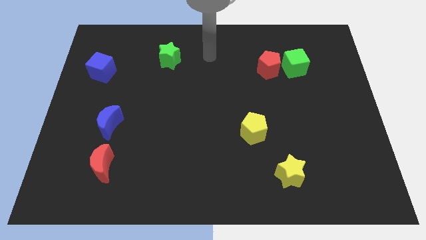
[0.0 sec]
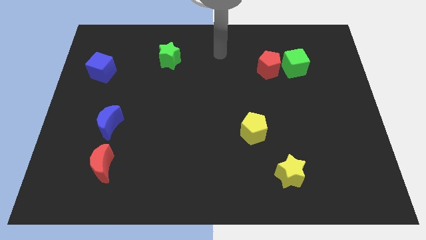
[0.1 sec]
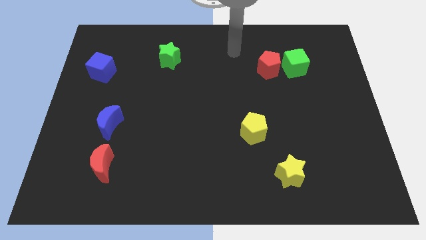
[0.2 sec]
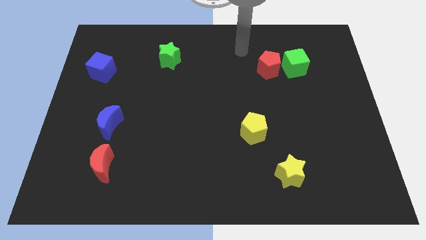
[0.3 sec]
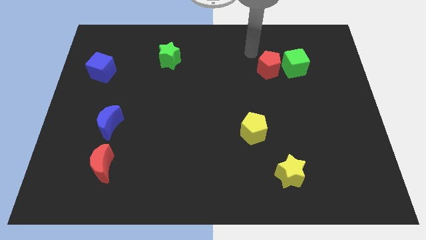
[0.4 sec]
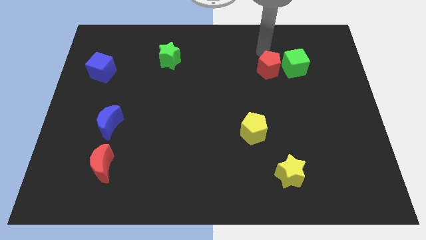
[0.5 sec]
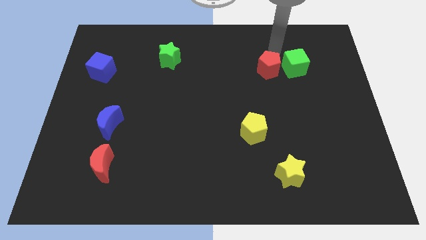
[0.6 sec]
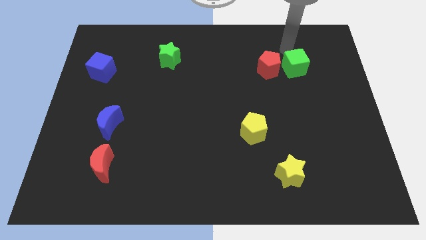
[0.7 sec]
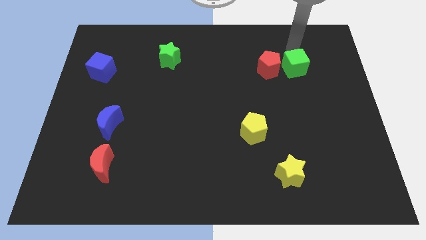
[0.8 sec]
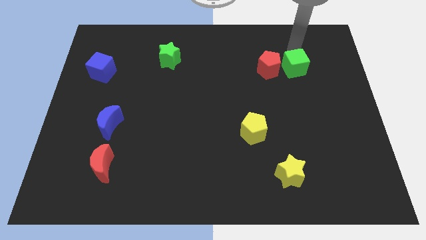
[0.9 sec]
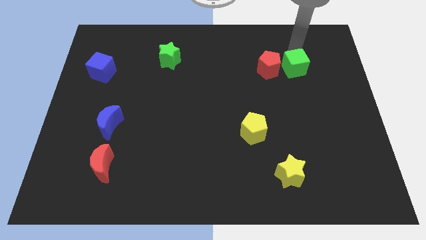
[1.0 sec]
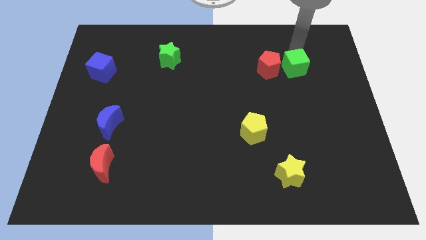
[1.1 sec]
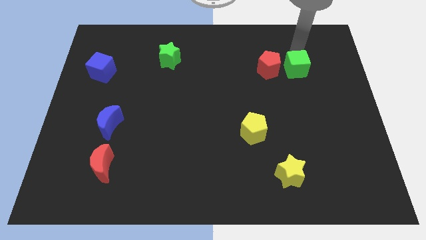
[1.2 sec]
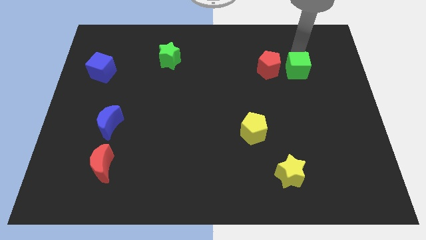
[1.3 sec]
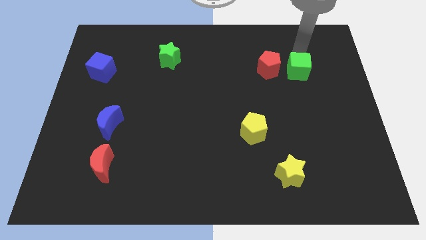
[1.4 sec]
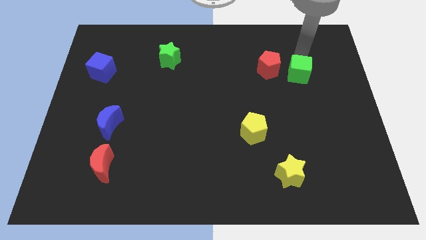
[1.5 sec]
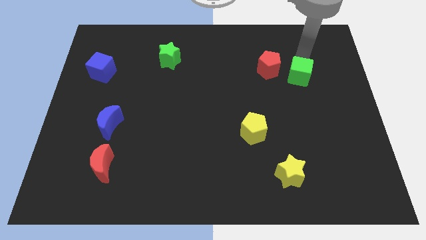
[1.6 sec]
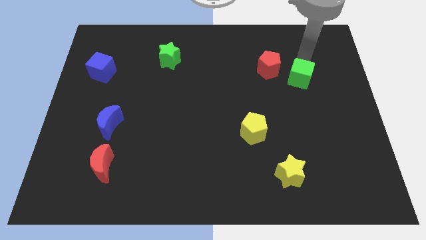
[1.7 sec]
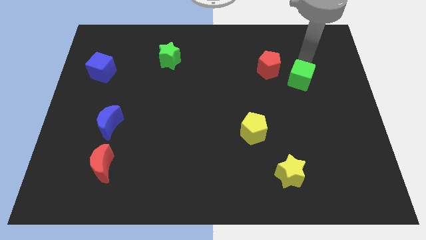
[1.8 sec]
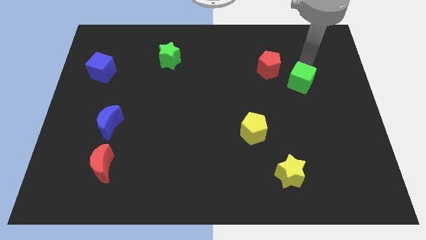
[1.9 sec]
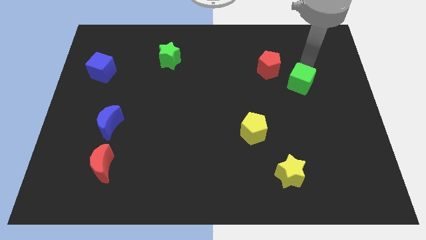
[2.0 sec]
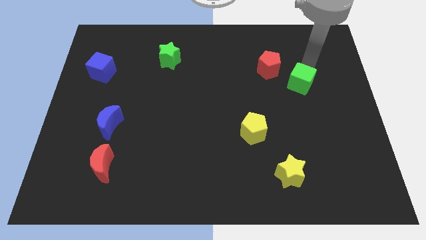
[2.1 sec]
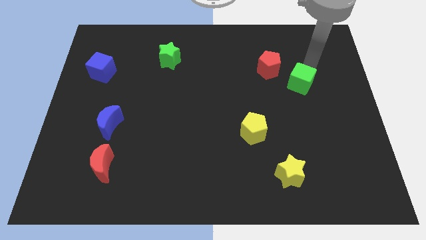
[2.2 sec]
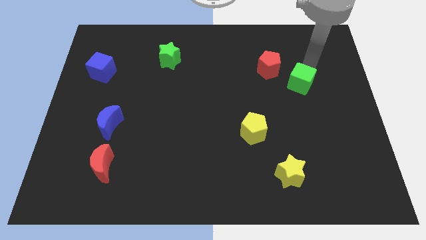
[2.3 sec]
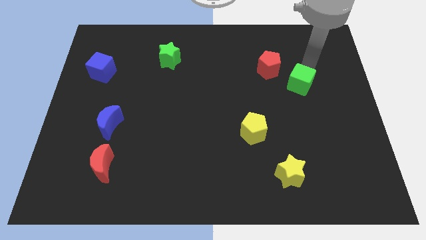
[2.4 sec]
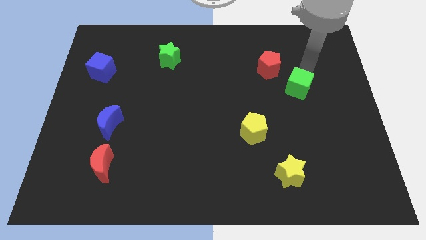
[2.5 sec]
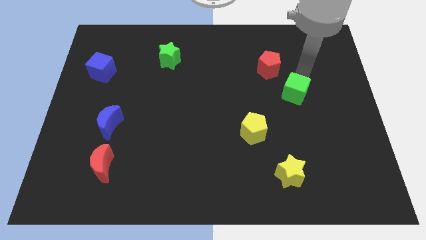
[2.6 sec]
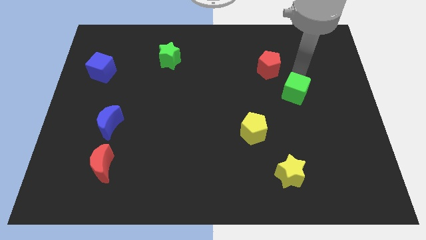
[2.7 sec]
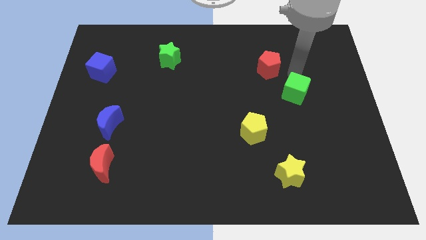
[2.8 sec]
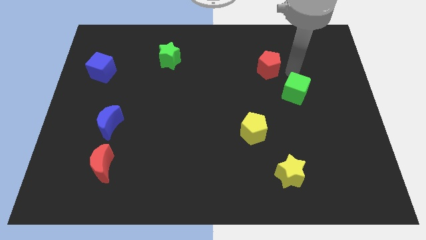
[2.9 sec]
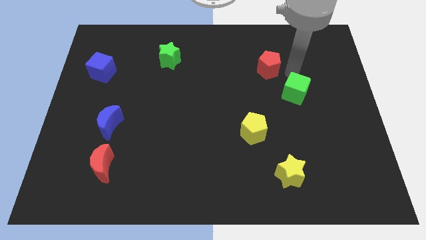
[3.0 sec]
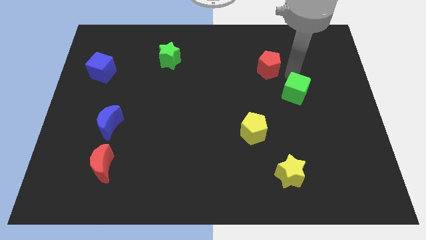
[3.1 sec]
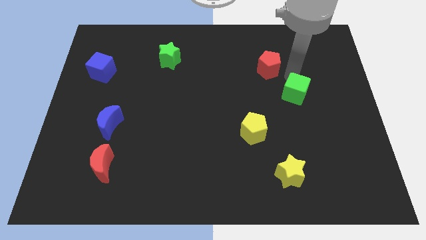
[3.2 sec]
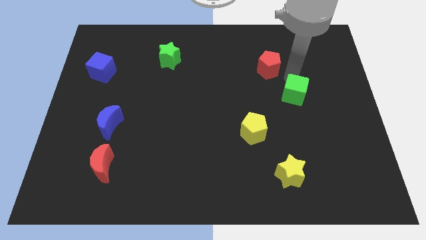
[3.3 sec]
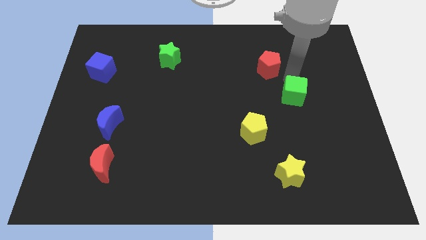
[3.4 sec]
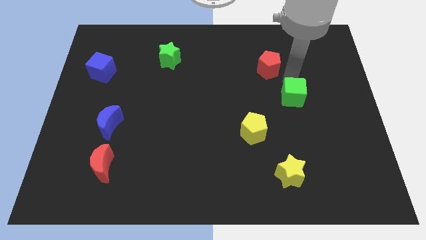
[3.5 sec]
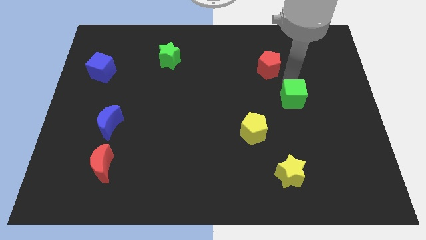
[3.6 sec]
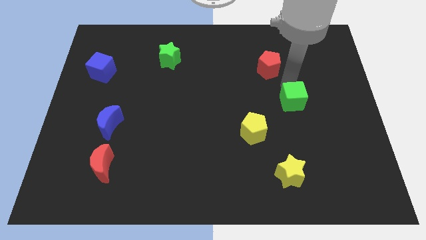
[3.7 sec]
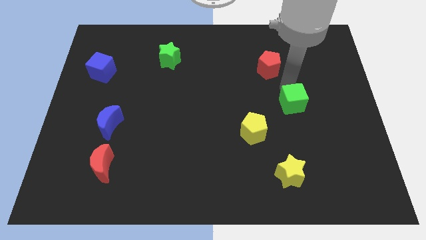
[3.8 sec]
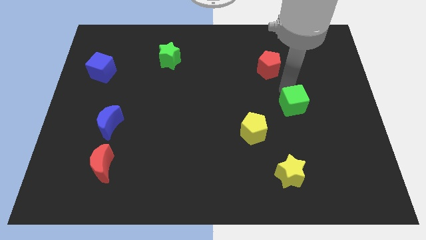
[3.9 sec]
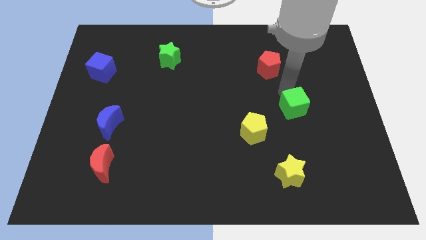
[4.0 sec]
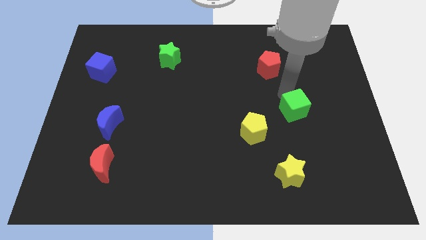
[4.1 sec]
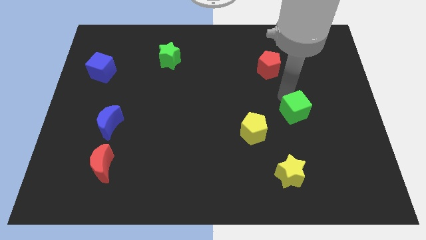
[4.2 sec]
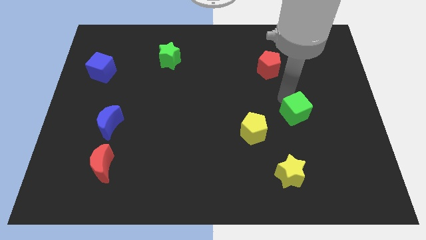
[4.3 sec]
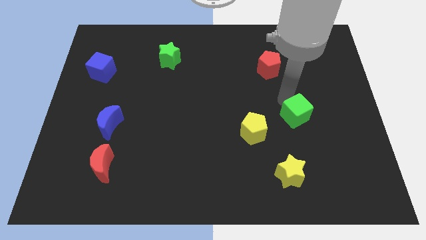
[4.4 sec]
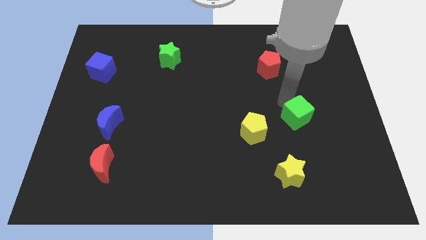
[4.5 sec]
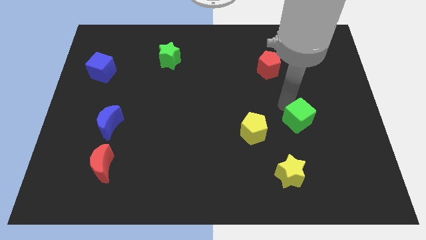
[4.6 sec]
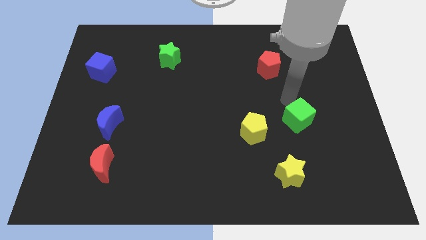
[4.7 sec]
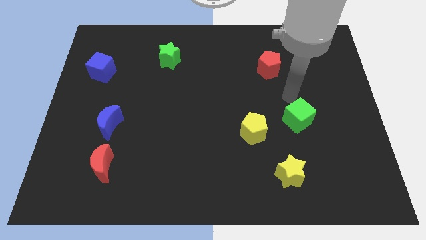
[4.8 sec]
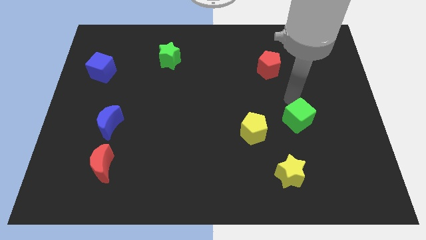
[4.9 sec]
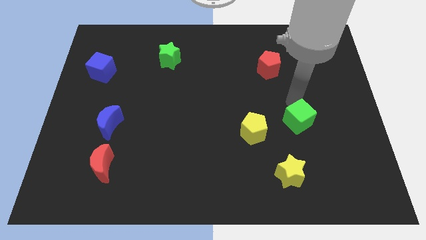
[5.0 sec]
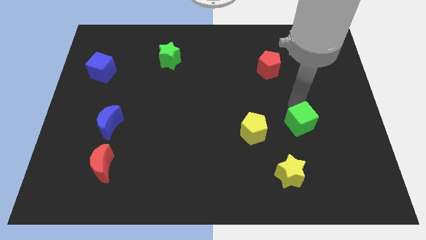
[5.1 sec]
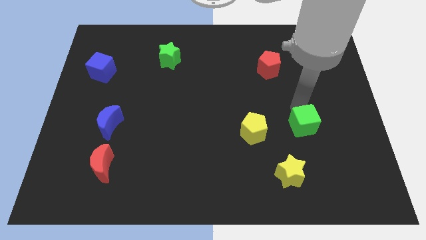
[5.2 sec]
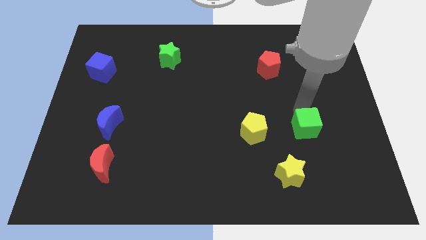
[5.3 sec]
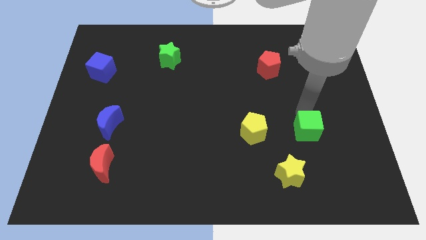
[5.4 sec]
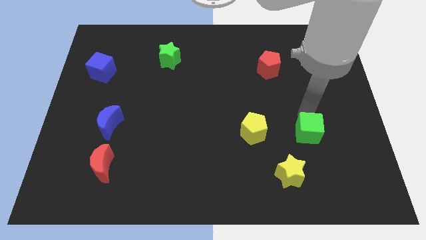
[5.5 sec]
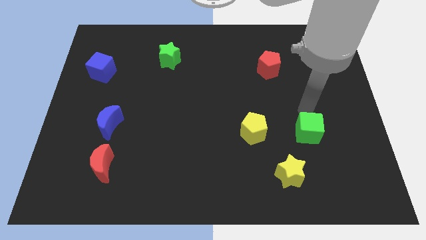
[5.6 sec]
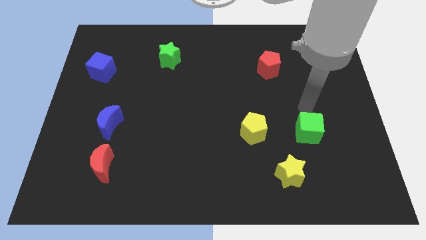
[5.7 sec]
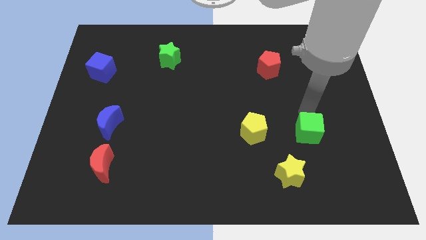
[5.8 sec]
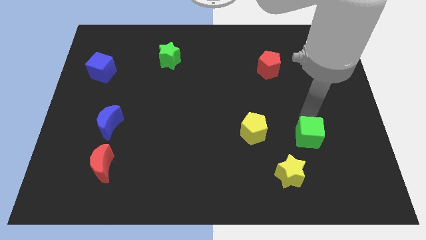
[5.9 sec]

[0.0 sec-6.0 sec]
slide the green cube diagonally up and to the right of the yellow star

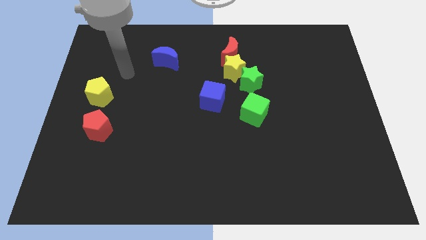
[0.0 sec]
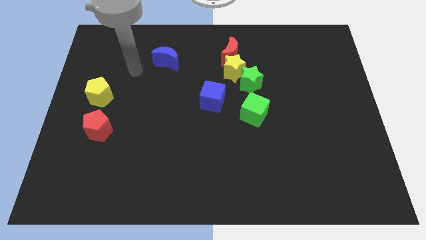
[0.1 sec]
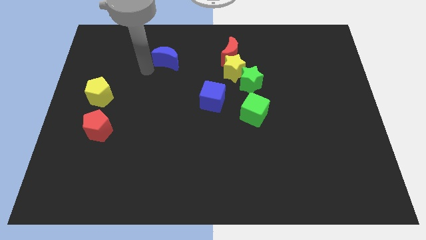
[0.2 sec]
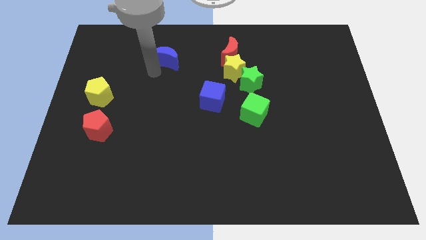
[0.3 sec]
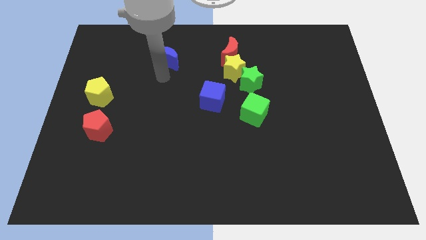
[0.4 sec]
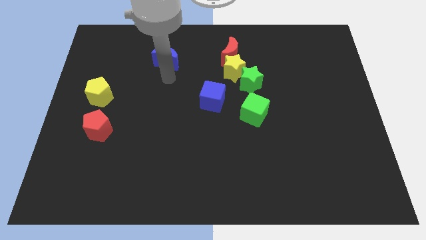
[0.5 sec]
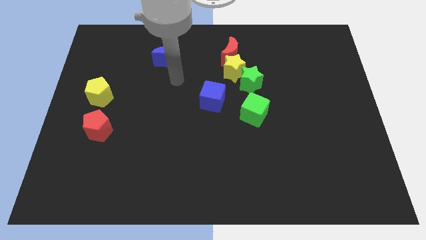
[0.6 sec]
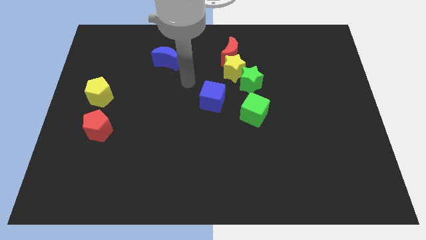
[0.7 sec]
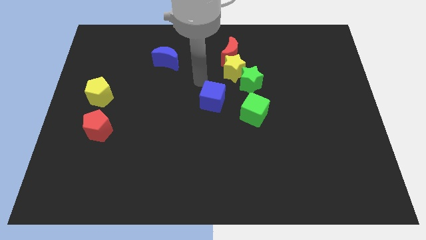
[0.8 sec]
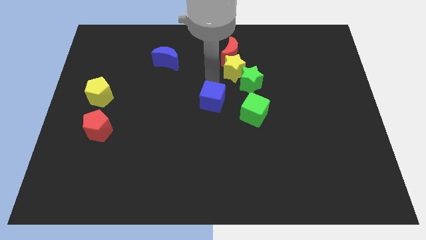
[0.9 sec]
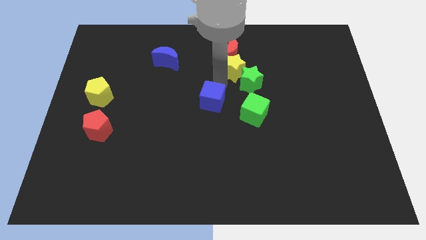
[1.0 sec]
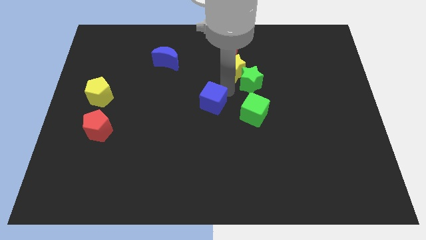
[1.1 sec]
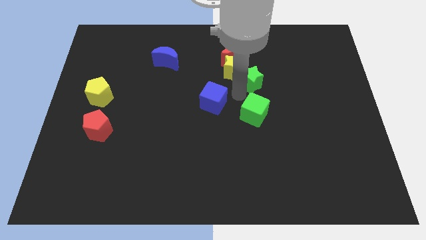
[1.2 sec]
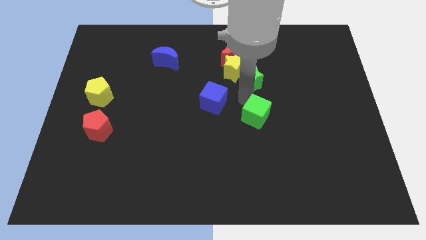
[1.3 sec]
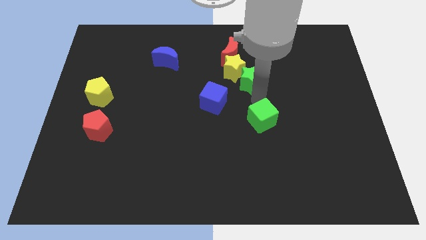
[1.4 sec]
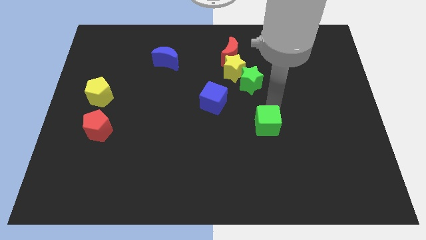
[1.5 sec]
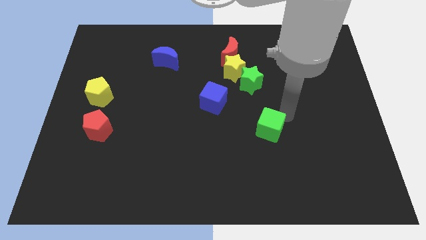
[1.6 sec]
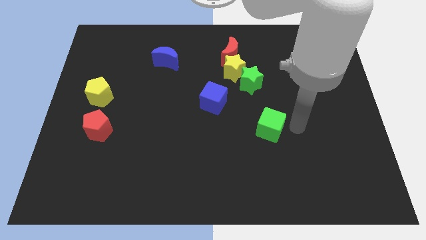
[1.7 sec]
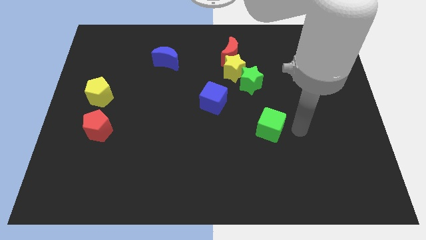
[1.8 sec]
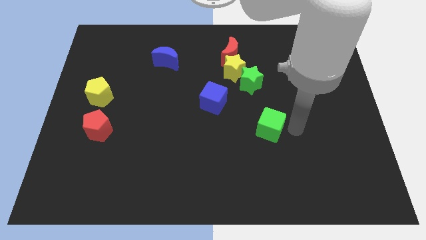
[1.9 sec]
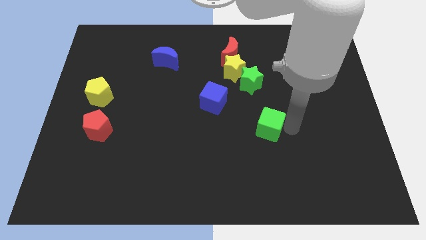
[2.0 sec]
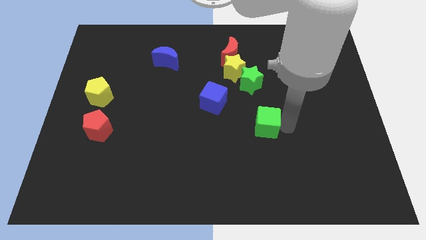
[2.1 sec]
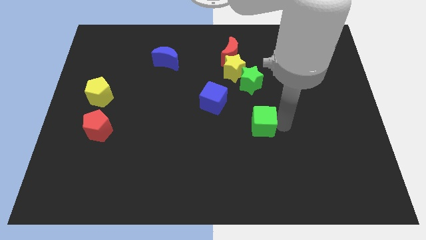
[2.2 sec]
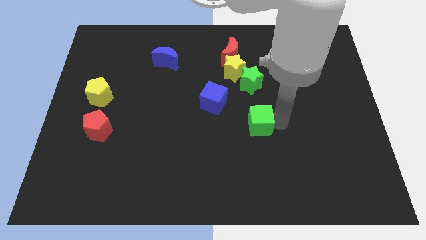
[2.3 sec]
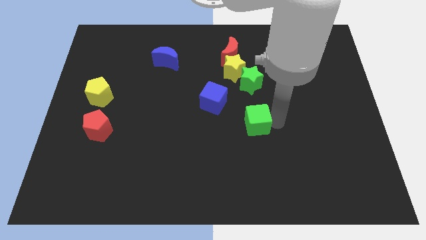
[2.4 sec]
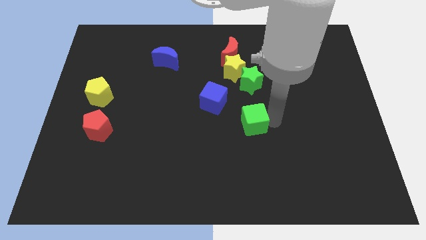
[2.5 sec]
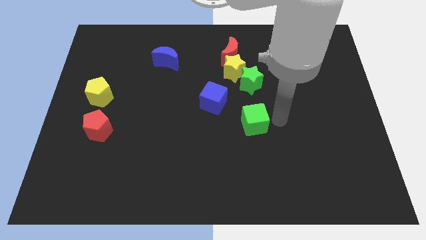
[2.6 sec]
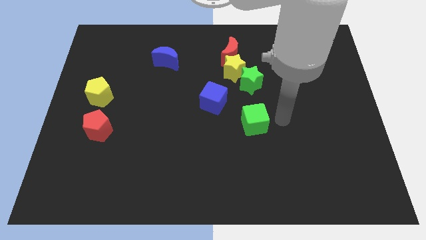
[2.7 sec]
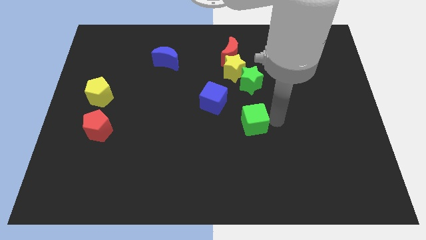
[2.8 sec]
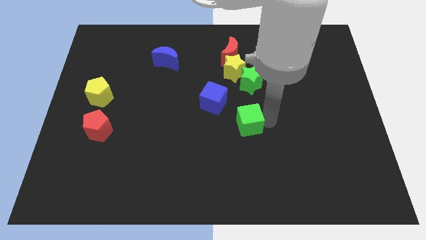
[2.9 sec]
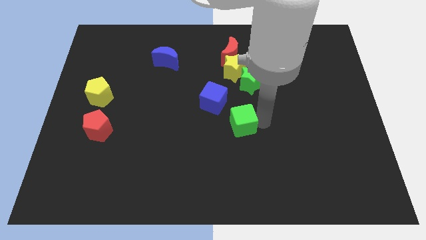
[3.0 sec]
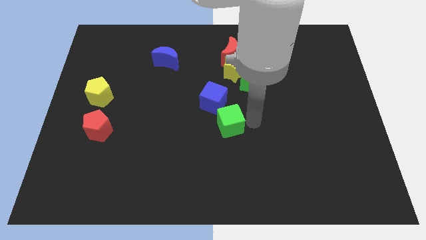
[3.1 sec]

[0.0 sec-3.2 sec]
push the green cube to the bottom side of the blue cube
